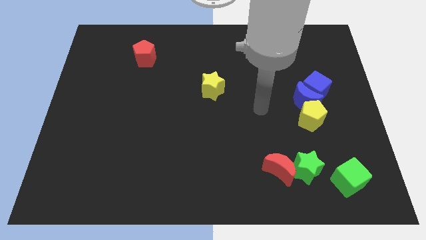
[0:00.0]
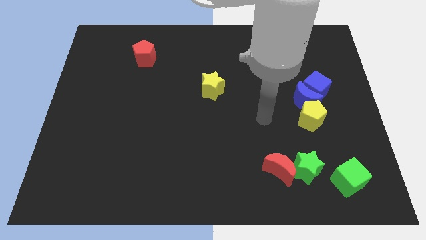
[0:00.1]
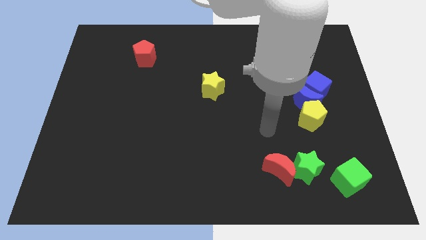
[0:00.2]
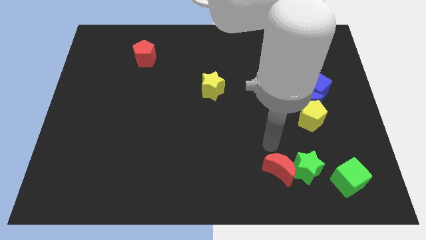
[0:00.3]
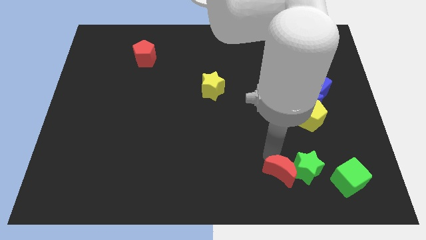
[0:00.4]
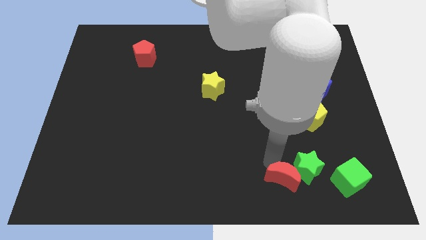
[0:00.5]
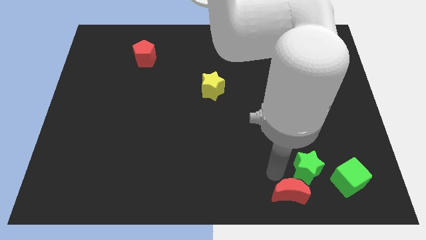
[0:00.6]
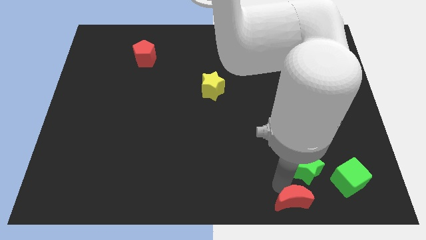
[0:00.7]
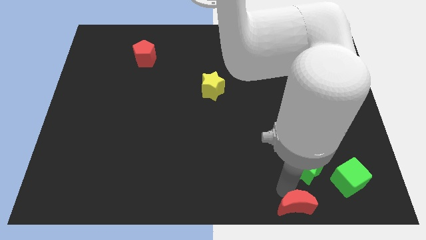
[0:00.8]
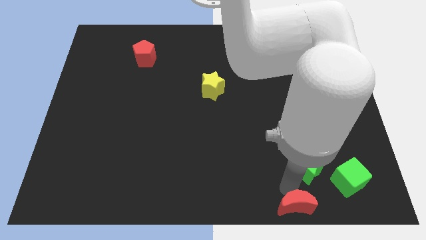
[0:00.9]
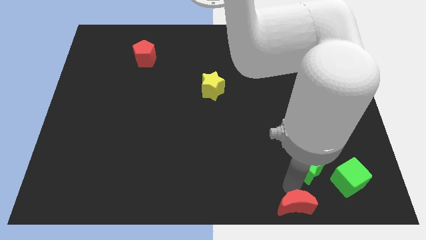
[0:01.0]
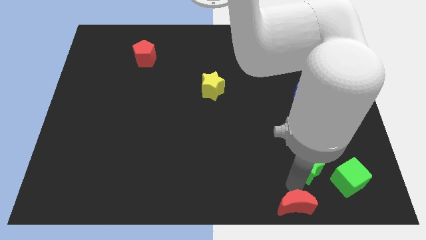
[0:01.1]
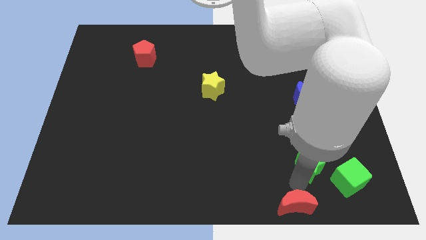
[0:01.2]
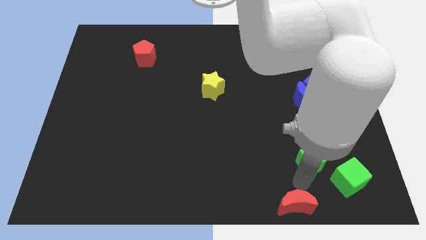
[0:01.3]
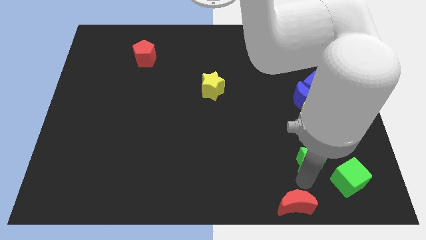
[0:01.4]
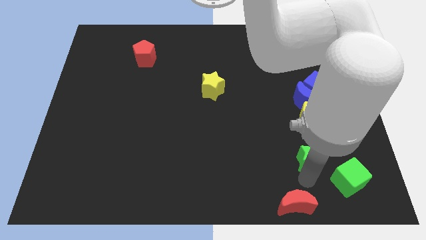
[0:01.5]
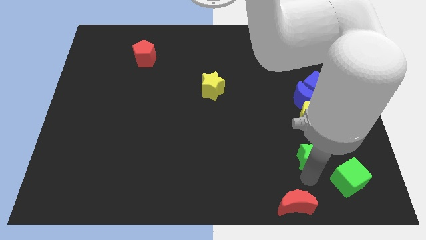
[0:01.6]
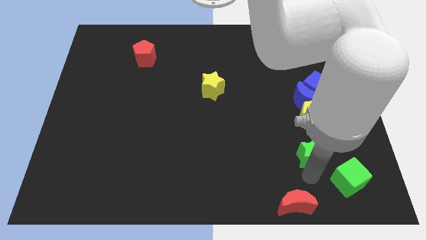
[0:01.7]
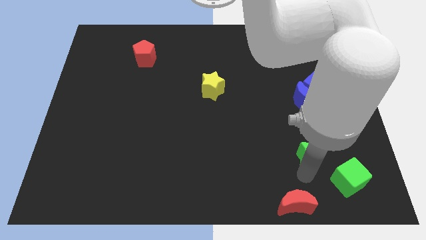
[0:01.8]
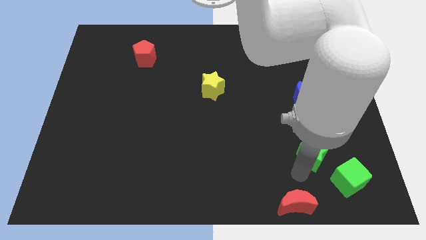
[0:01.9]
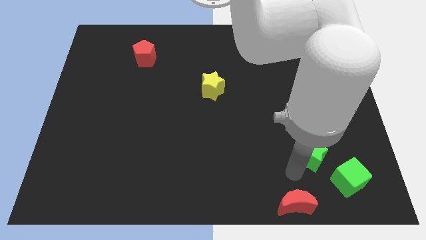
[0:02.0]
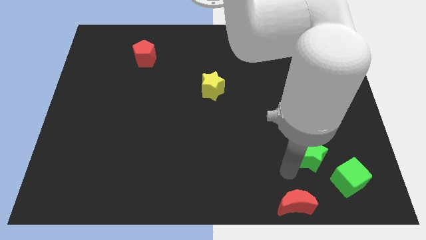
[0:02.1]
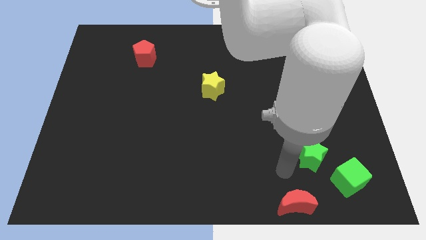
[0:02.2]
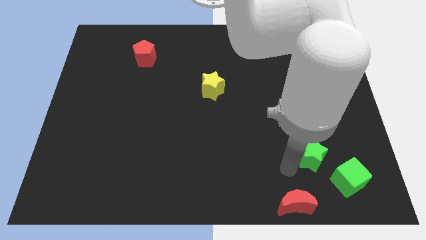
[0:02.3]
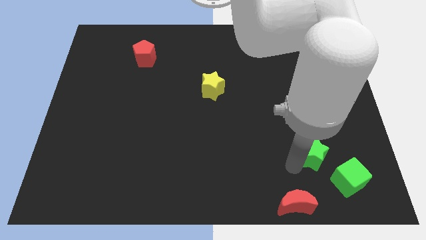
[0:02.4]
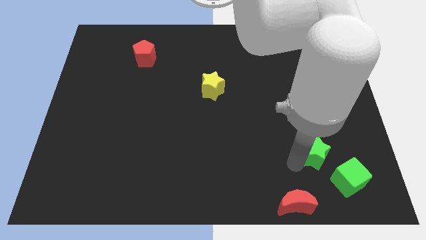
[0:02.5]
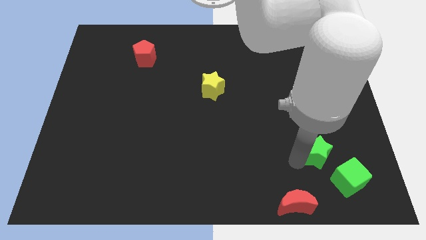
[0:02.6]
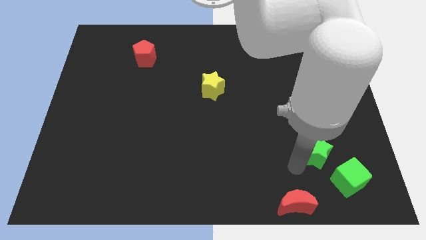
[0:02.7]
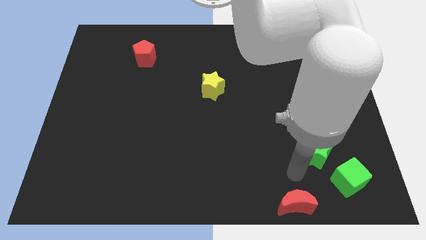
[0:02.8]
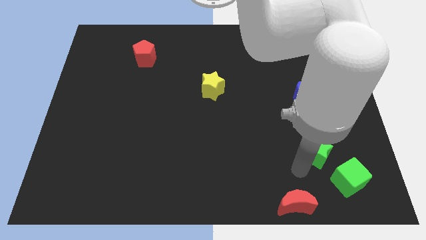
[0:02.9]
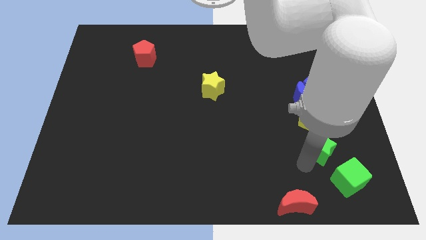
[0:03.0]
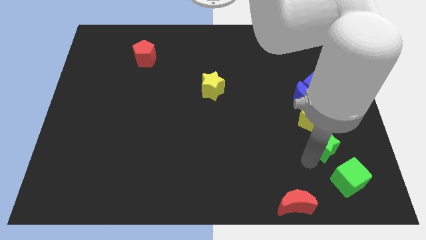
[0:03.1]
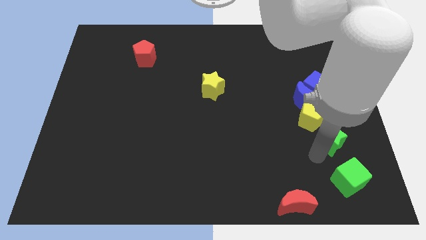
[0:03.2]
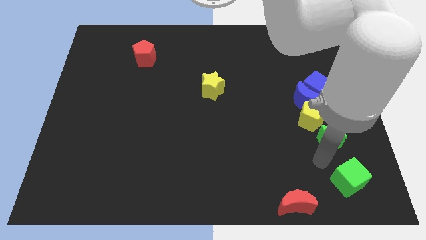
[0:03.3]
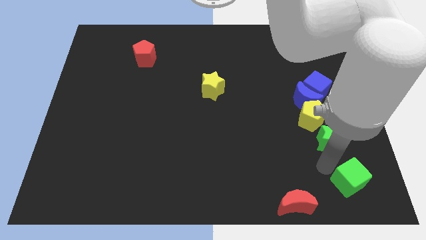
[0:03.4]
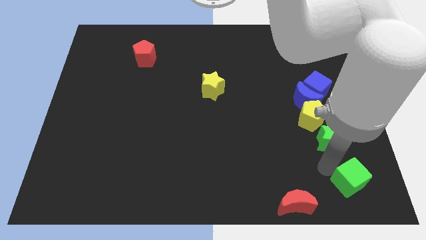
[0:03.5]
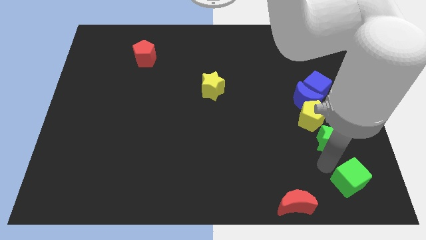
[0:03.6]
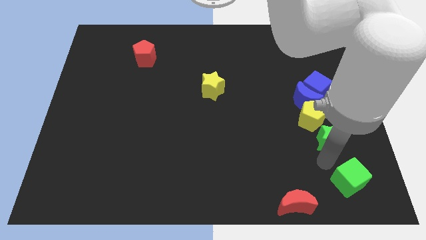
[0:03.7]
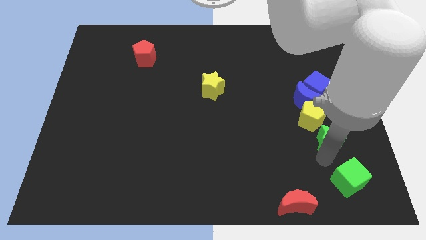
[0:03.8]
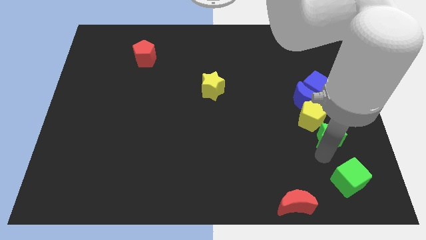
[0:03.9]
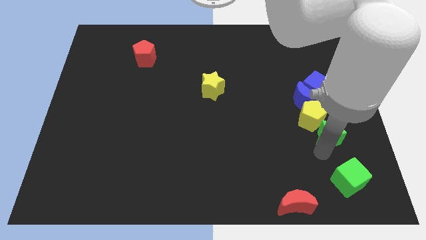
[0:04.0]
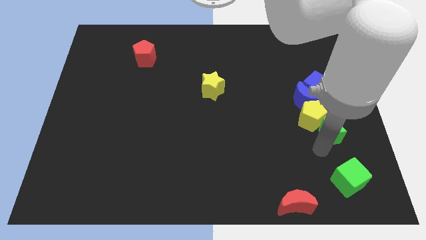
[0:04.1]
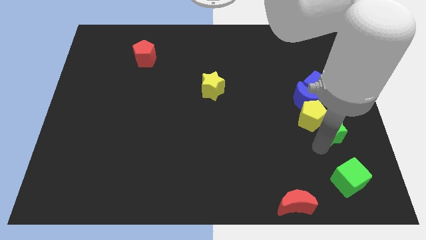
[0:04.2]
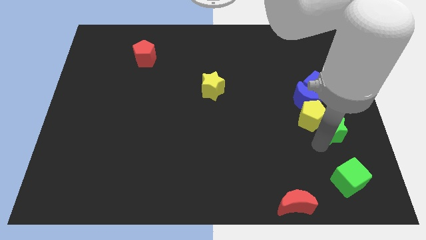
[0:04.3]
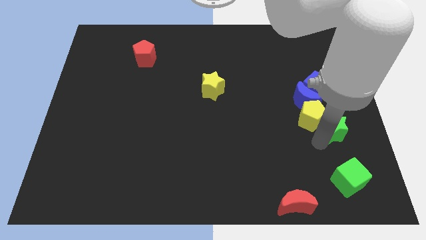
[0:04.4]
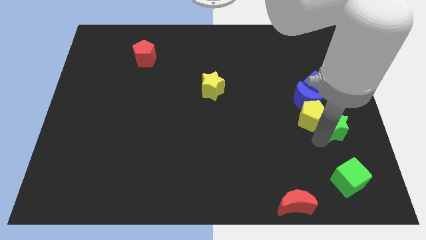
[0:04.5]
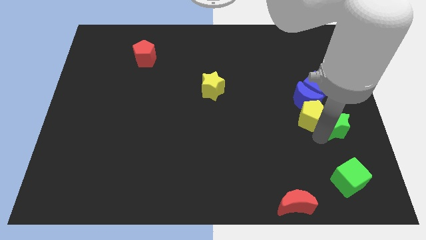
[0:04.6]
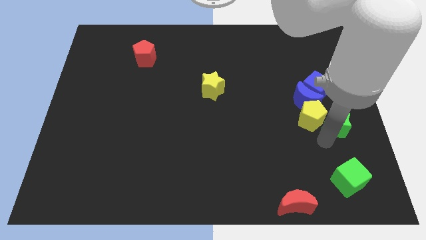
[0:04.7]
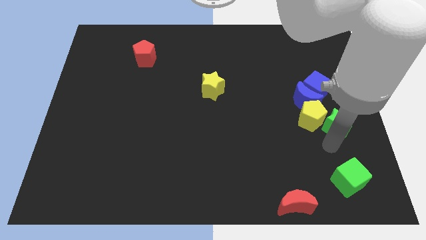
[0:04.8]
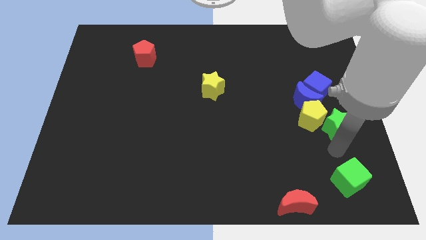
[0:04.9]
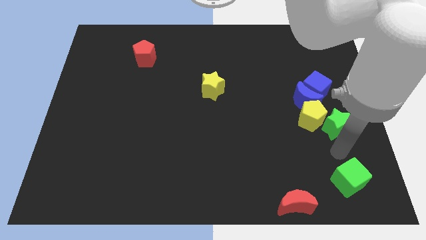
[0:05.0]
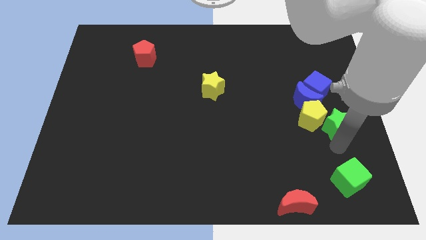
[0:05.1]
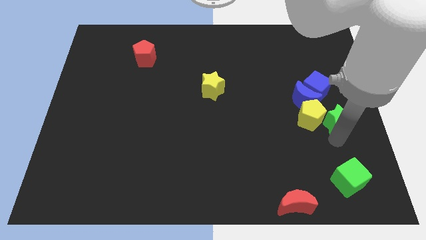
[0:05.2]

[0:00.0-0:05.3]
put the green star diagonally up and to the right of the yellow pentagon

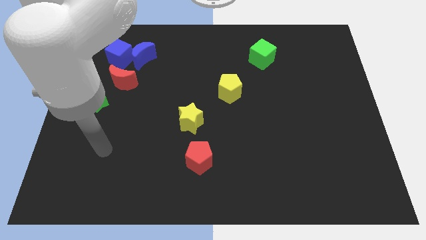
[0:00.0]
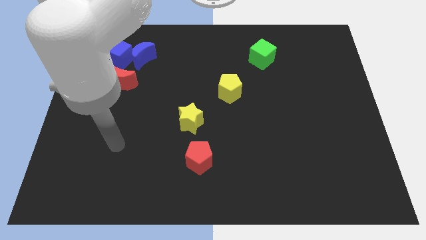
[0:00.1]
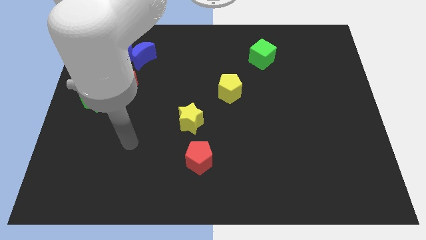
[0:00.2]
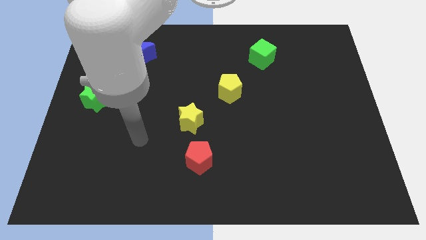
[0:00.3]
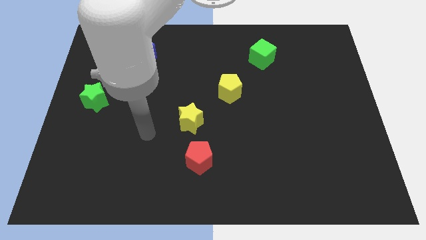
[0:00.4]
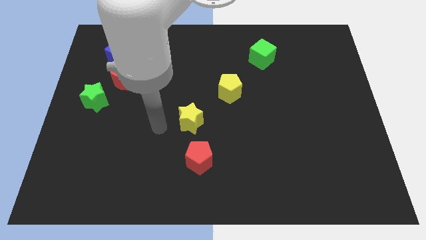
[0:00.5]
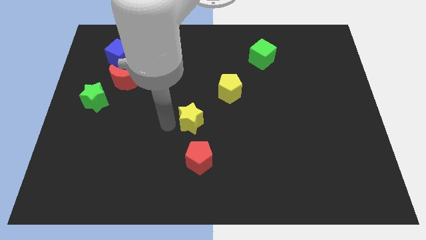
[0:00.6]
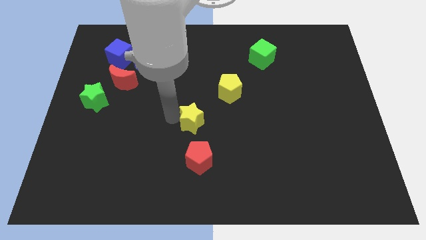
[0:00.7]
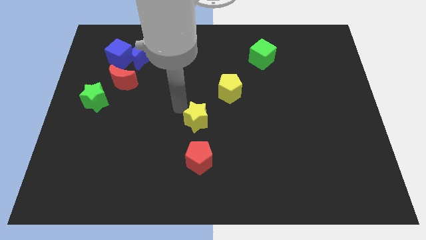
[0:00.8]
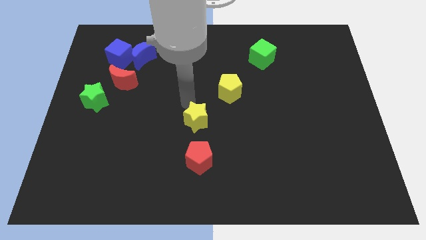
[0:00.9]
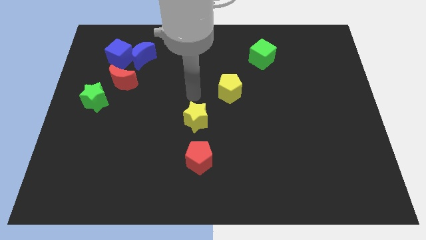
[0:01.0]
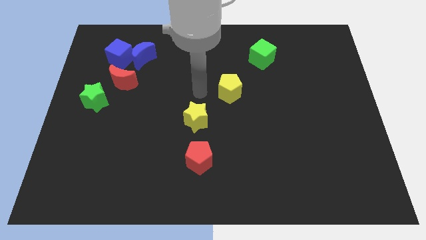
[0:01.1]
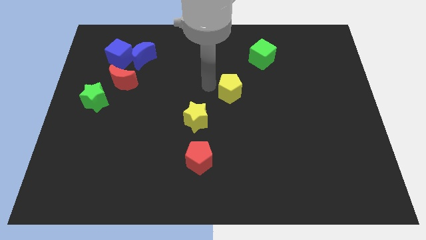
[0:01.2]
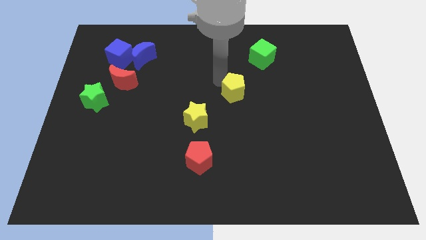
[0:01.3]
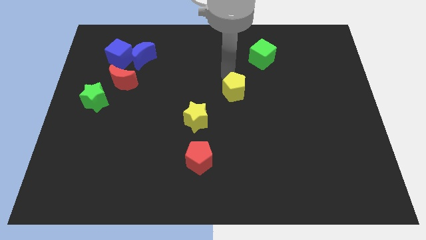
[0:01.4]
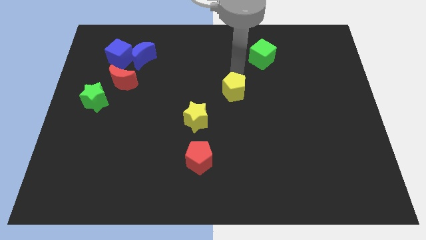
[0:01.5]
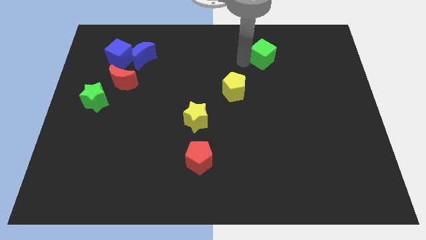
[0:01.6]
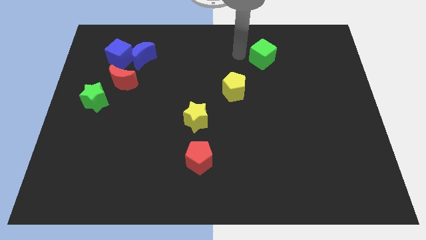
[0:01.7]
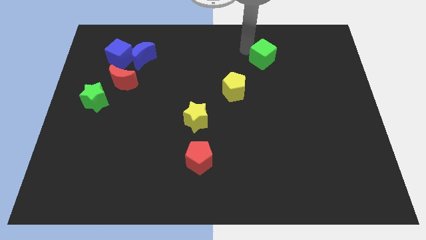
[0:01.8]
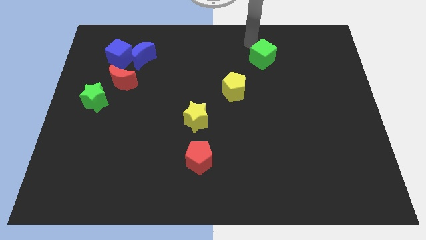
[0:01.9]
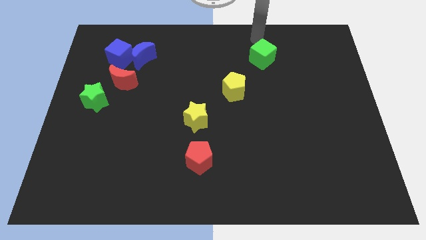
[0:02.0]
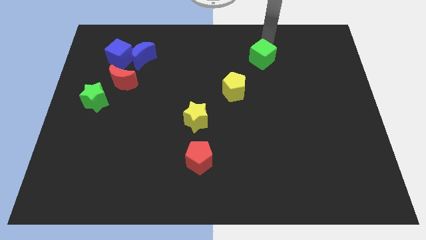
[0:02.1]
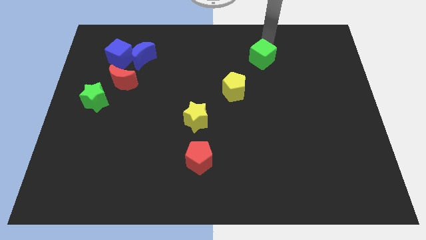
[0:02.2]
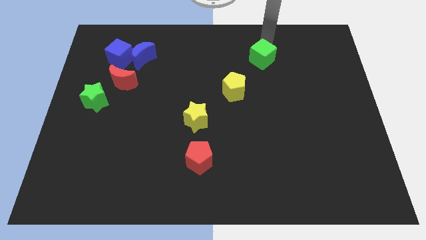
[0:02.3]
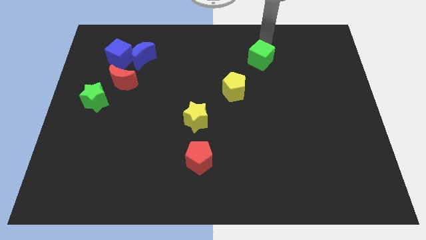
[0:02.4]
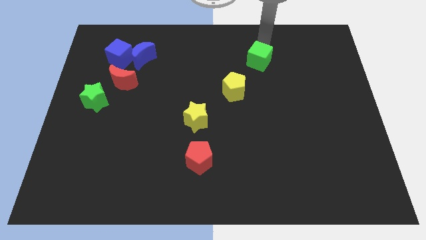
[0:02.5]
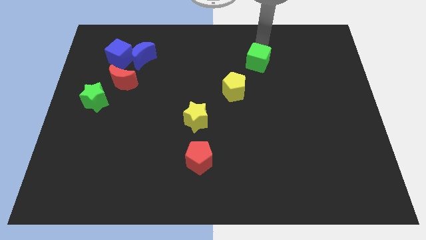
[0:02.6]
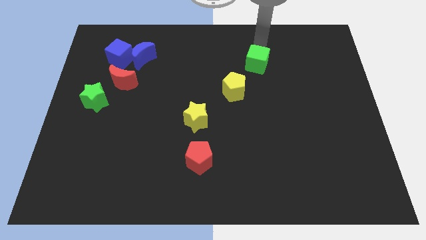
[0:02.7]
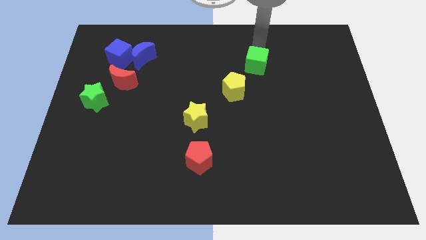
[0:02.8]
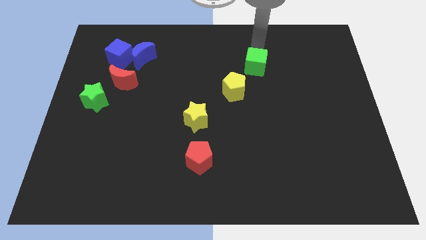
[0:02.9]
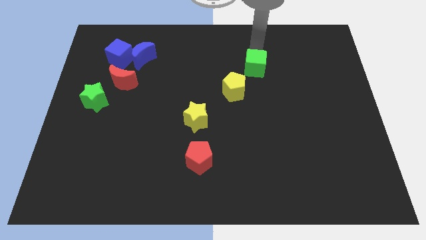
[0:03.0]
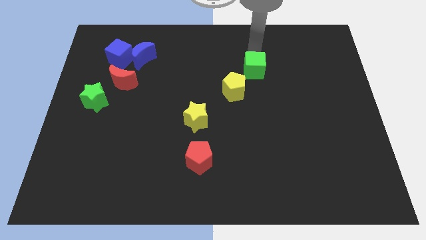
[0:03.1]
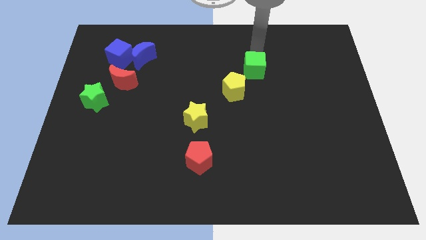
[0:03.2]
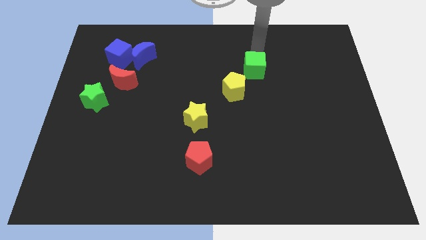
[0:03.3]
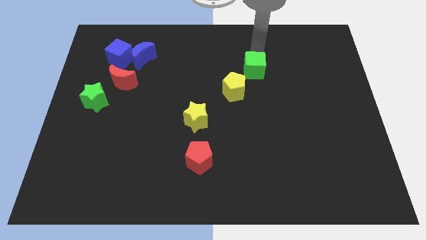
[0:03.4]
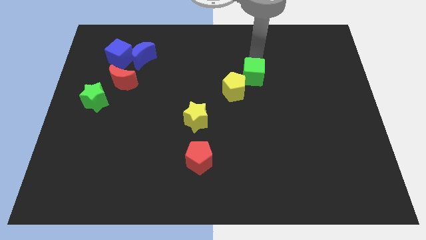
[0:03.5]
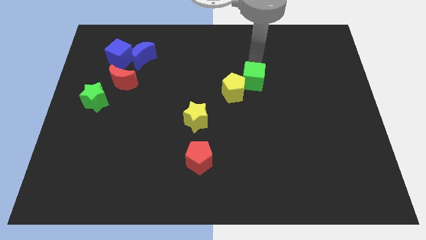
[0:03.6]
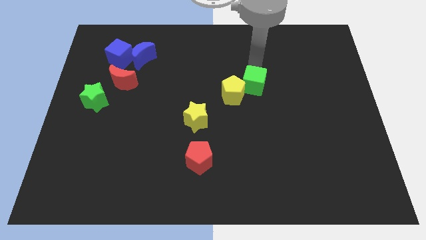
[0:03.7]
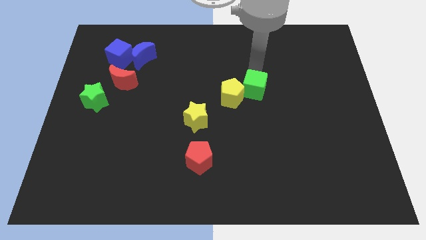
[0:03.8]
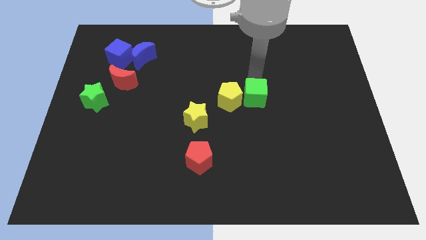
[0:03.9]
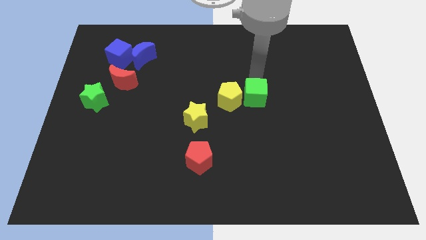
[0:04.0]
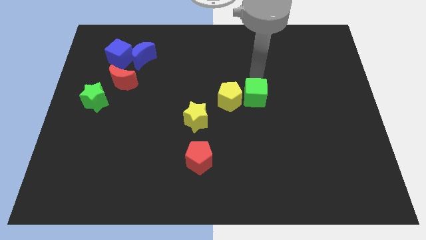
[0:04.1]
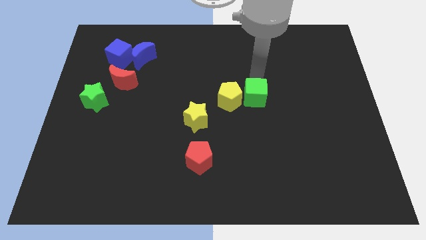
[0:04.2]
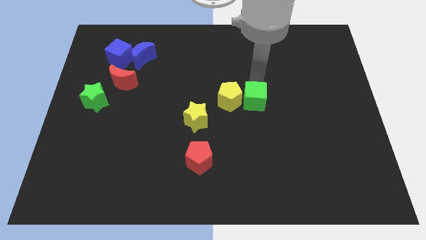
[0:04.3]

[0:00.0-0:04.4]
put the green cube to the bottom right of the yellow pentagon
